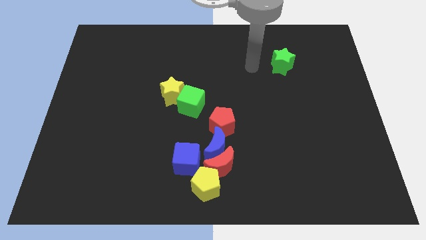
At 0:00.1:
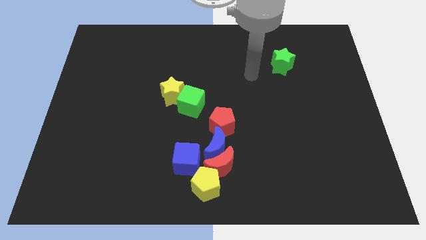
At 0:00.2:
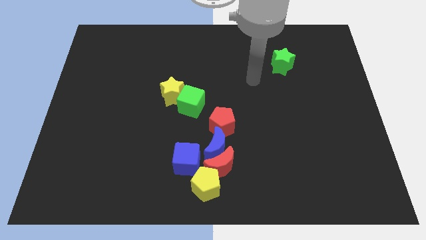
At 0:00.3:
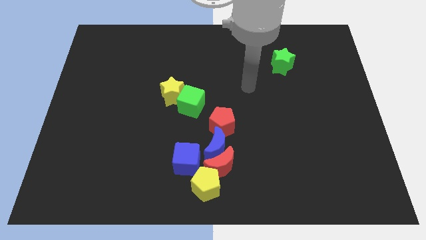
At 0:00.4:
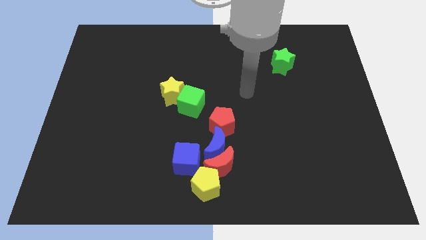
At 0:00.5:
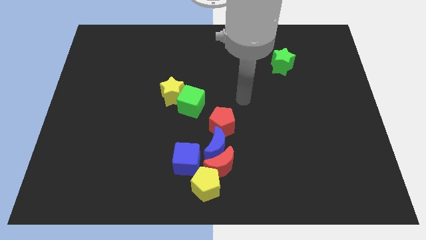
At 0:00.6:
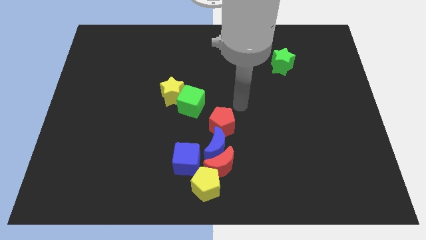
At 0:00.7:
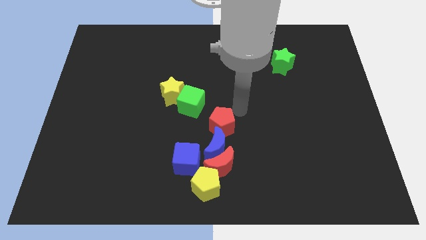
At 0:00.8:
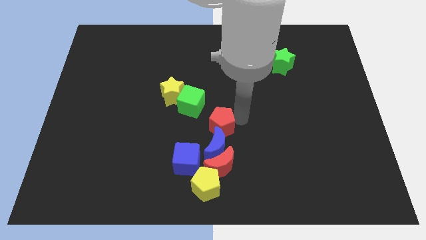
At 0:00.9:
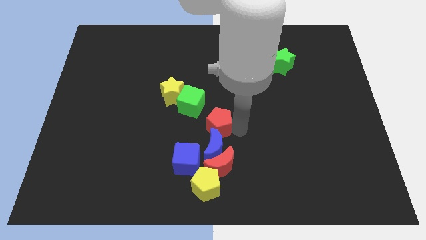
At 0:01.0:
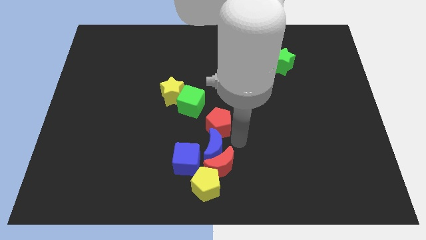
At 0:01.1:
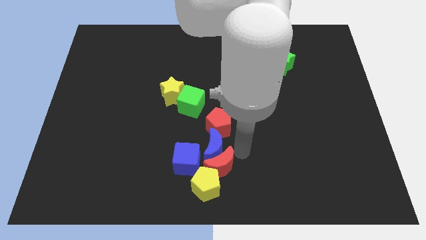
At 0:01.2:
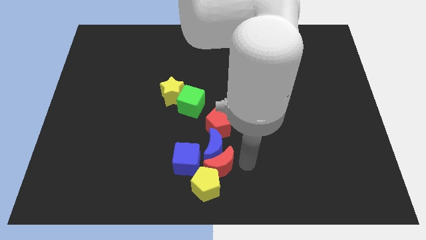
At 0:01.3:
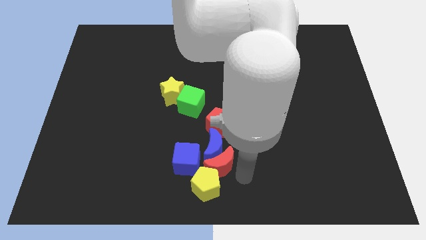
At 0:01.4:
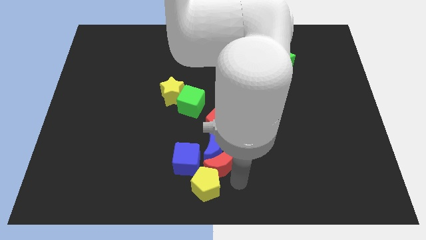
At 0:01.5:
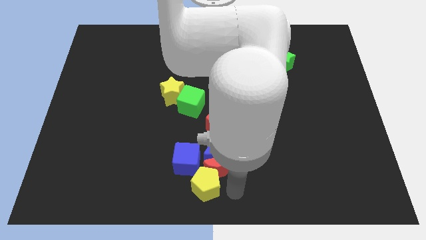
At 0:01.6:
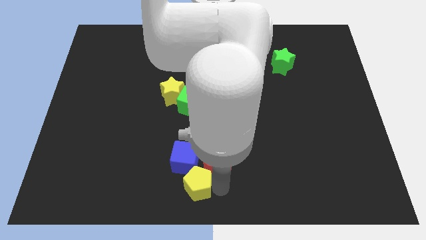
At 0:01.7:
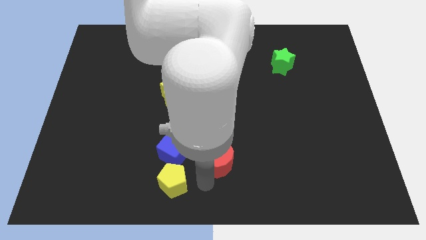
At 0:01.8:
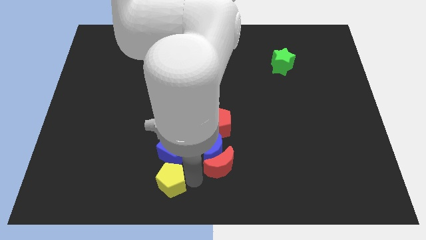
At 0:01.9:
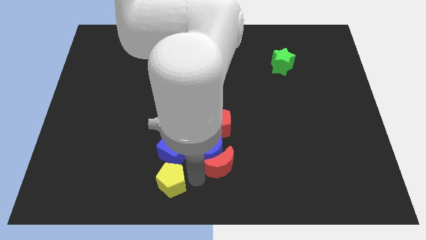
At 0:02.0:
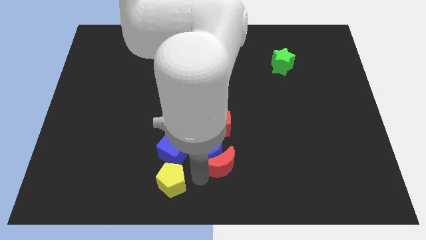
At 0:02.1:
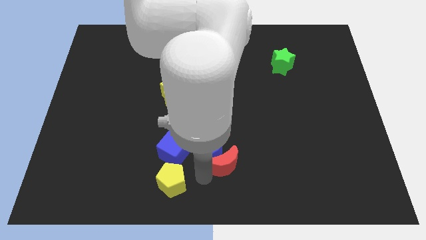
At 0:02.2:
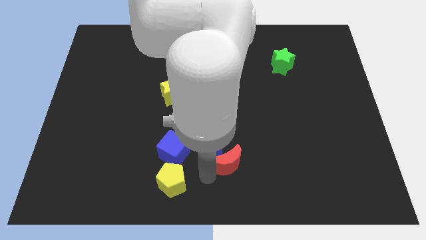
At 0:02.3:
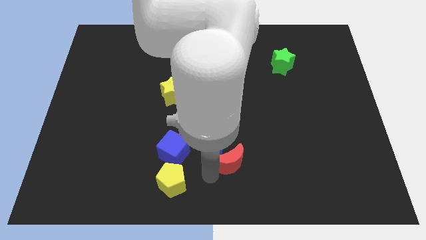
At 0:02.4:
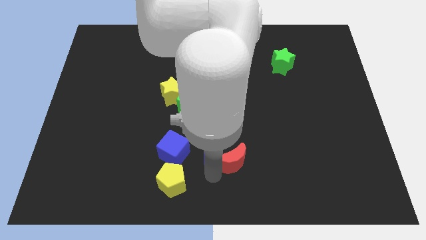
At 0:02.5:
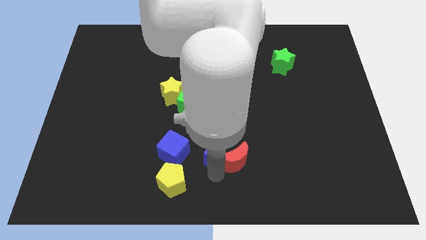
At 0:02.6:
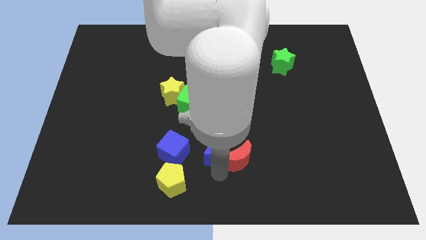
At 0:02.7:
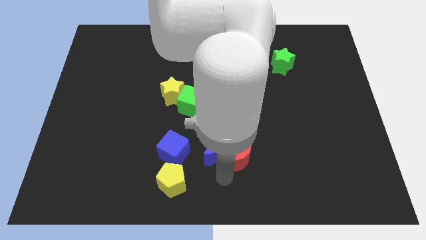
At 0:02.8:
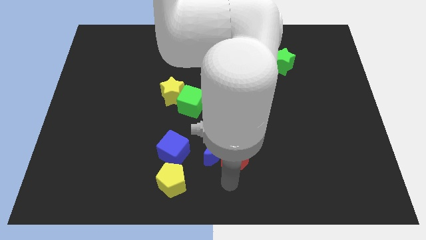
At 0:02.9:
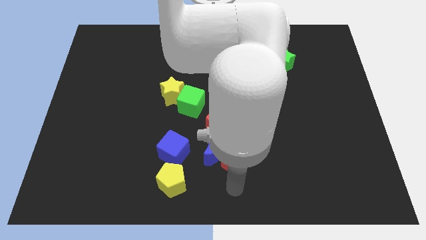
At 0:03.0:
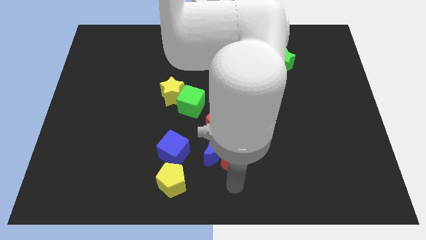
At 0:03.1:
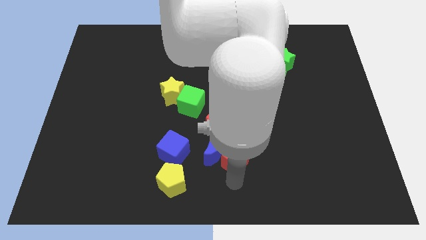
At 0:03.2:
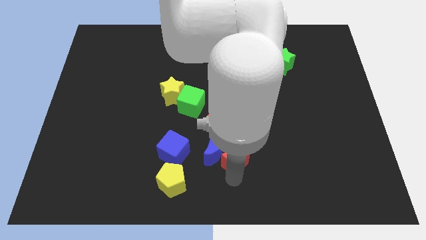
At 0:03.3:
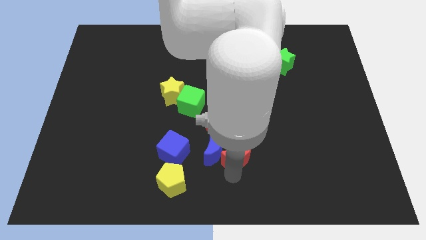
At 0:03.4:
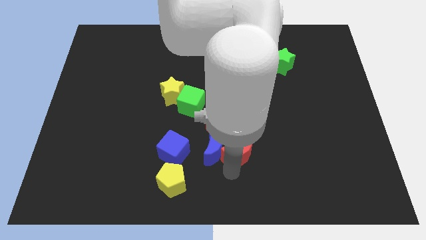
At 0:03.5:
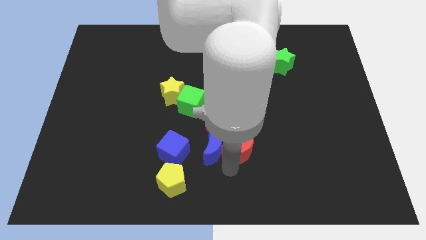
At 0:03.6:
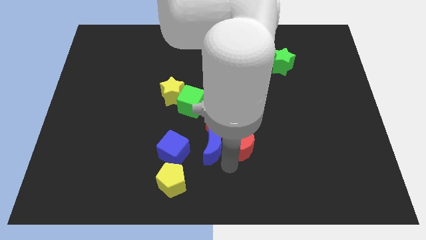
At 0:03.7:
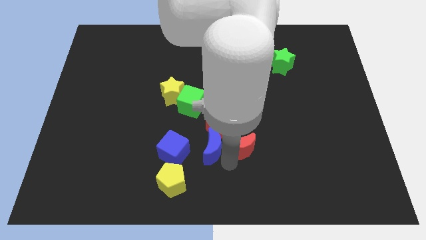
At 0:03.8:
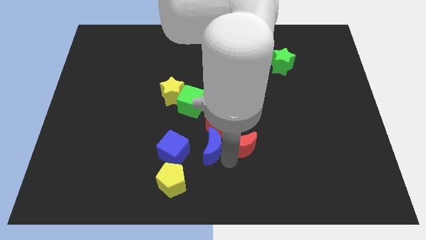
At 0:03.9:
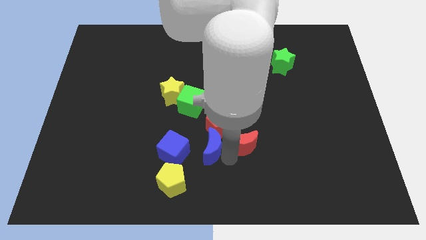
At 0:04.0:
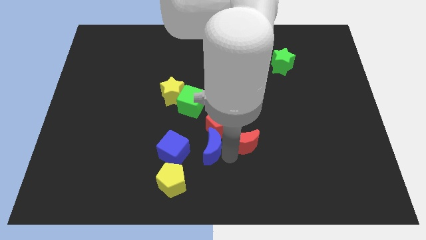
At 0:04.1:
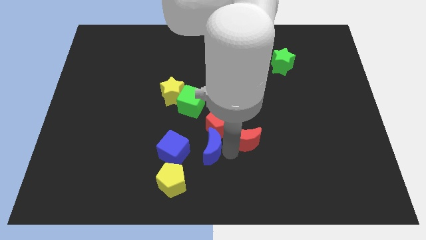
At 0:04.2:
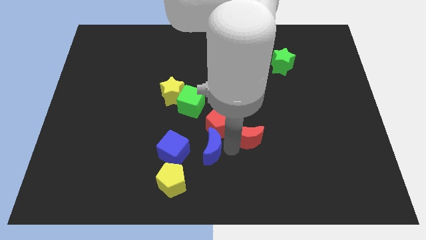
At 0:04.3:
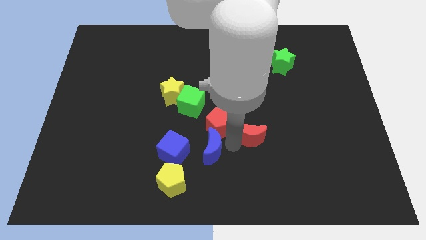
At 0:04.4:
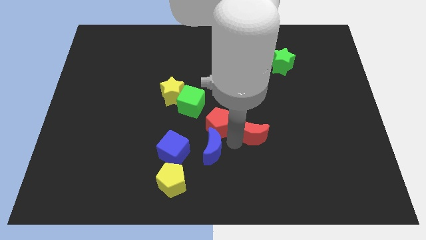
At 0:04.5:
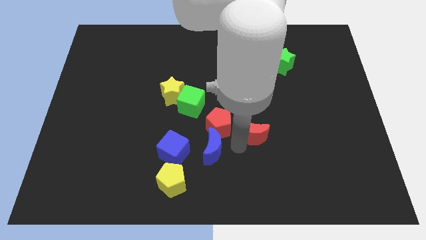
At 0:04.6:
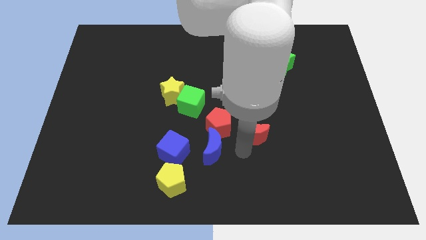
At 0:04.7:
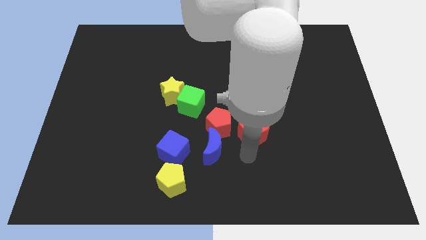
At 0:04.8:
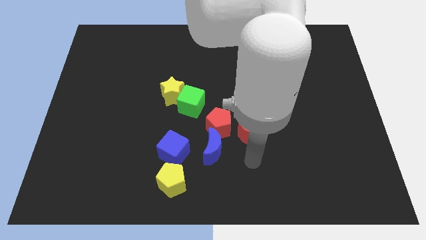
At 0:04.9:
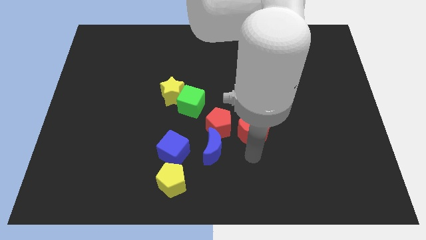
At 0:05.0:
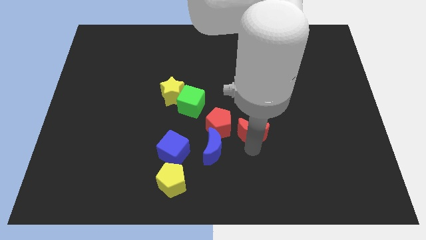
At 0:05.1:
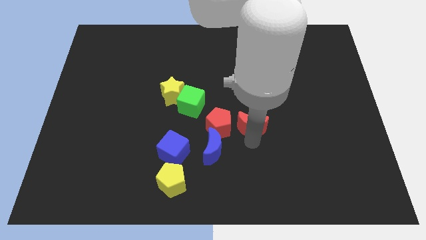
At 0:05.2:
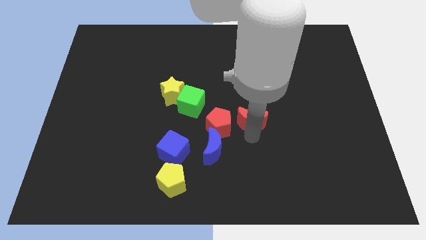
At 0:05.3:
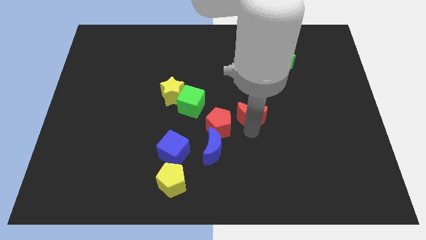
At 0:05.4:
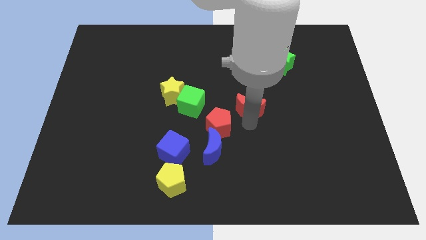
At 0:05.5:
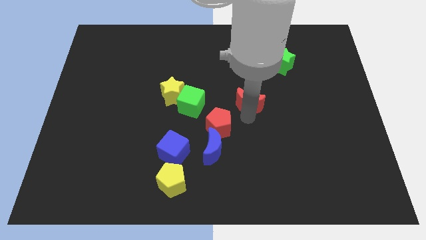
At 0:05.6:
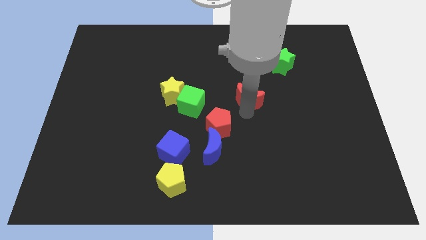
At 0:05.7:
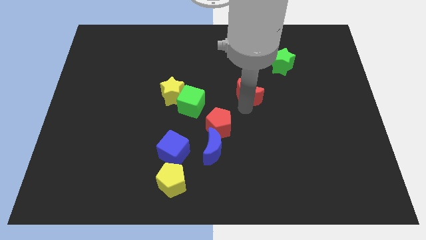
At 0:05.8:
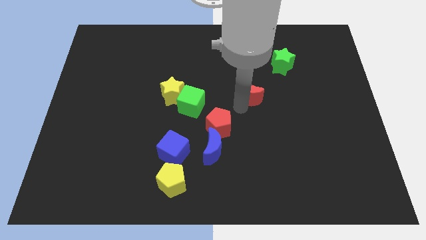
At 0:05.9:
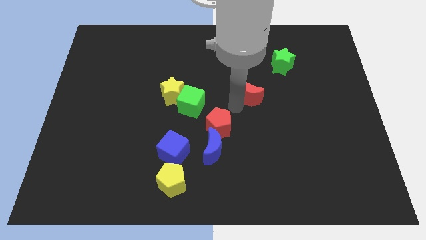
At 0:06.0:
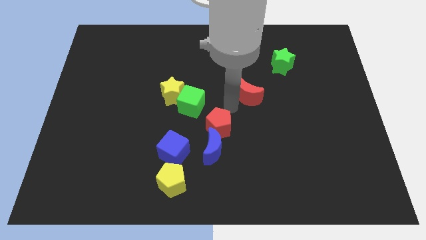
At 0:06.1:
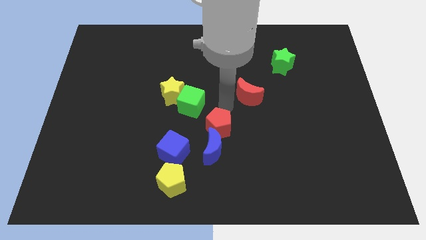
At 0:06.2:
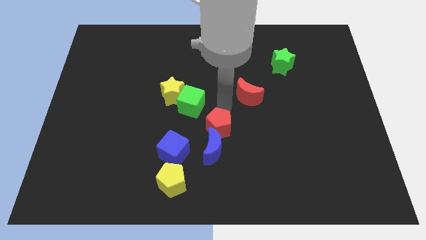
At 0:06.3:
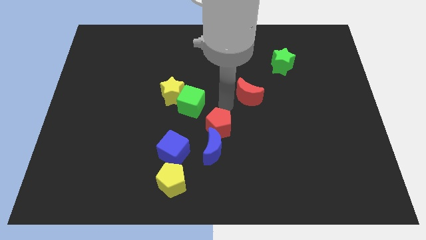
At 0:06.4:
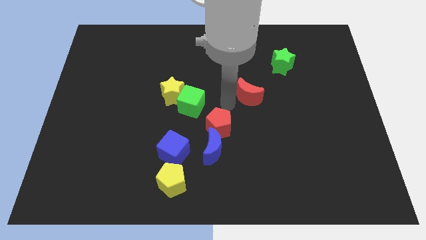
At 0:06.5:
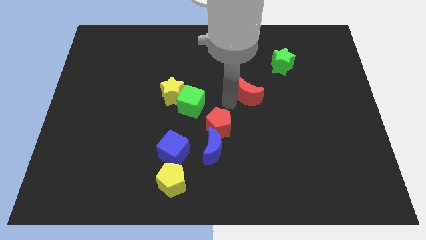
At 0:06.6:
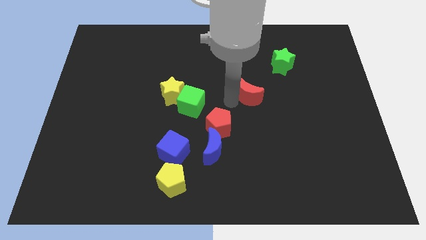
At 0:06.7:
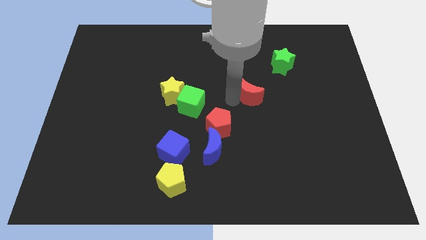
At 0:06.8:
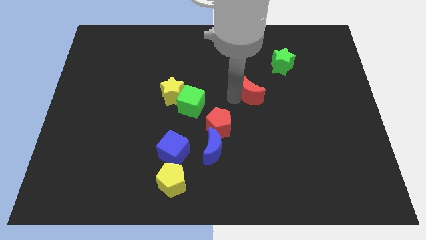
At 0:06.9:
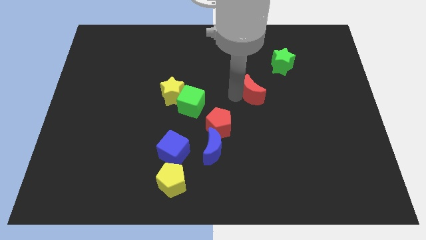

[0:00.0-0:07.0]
move the red moon to the bottom left side of the green star
